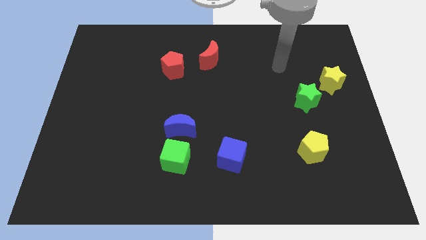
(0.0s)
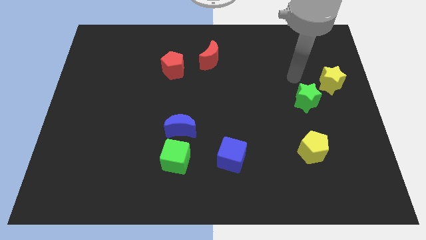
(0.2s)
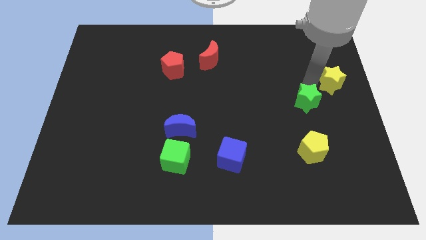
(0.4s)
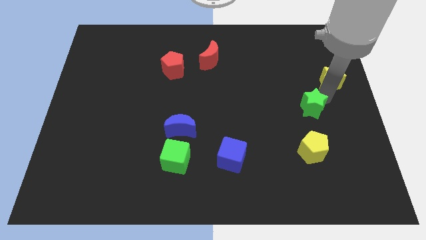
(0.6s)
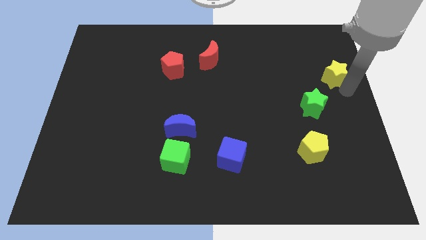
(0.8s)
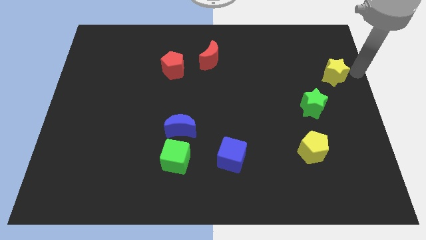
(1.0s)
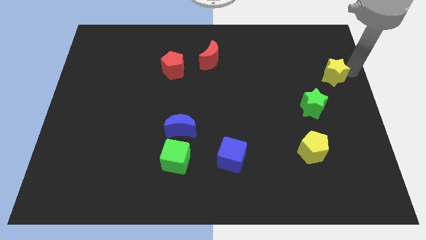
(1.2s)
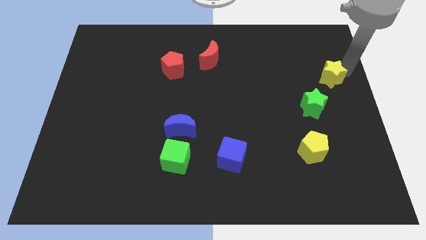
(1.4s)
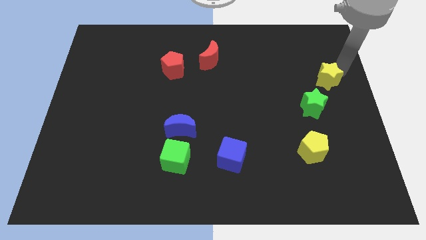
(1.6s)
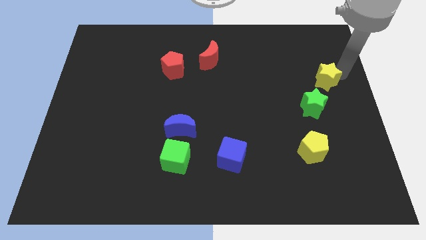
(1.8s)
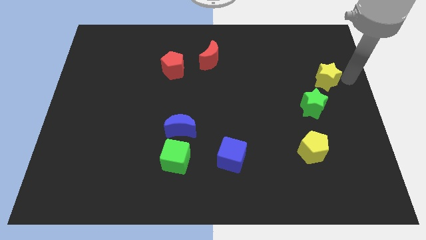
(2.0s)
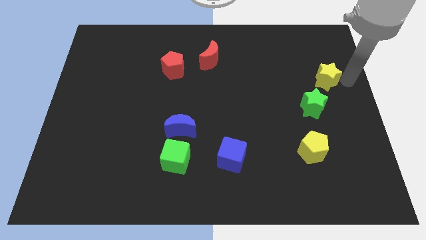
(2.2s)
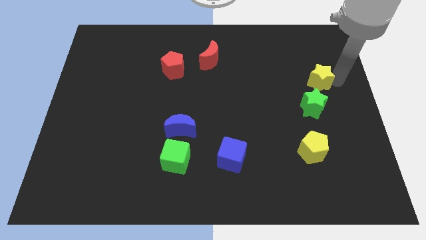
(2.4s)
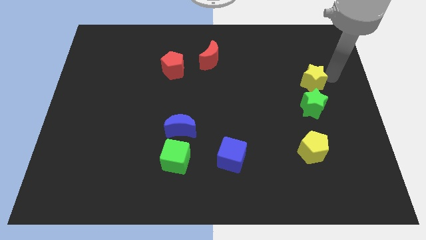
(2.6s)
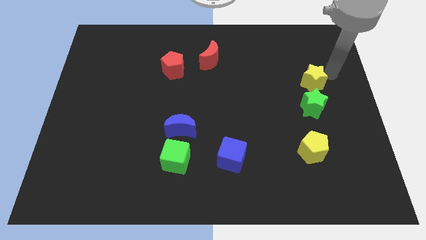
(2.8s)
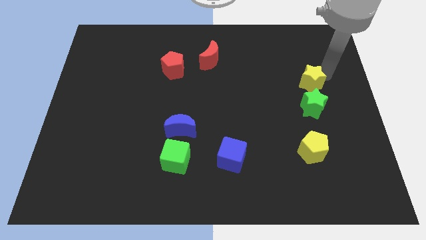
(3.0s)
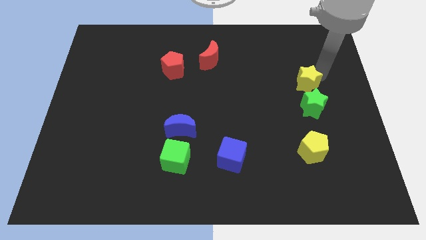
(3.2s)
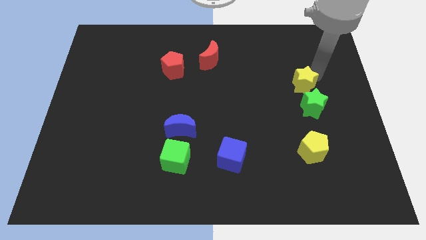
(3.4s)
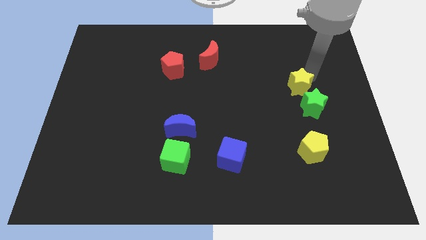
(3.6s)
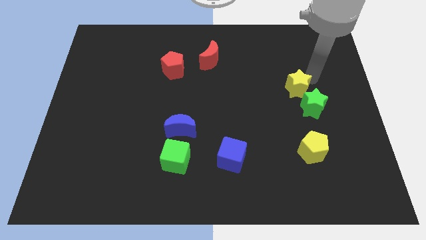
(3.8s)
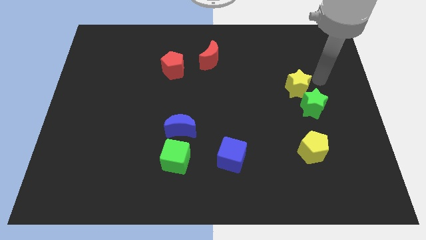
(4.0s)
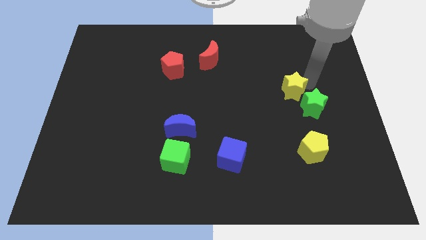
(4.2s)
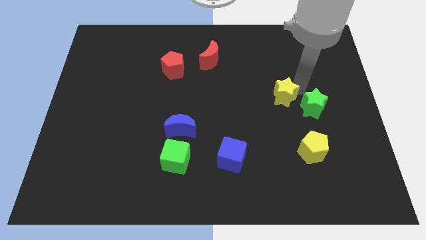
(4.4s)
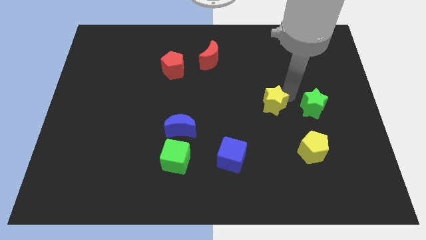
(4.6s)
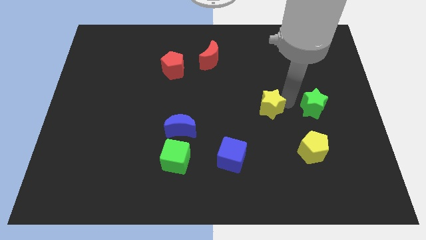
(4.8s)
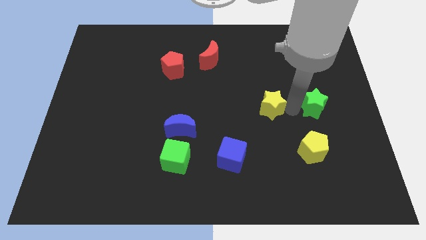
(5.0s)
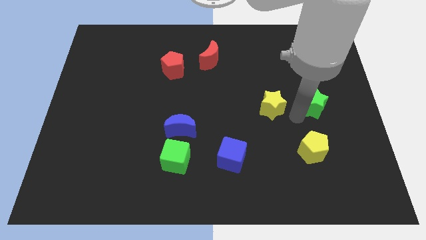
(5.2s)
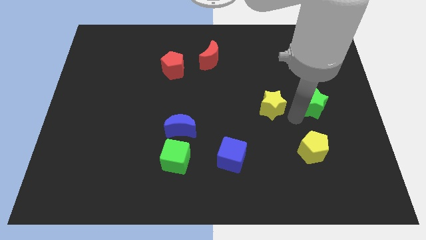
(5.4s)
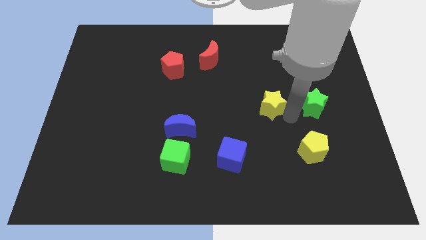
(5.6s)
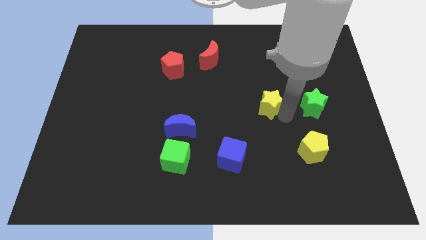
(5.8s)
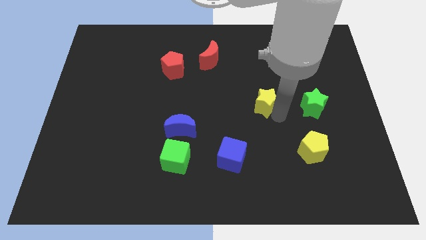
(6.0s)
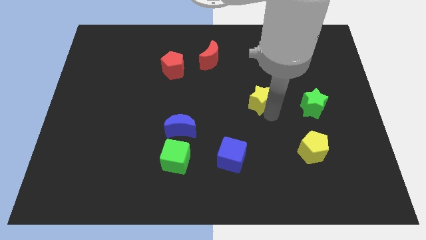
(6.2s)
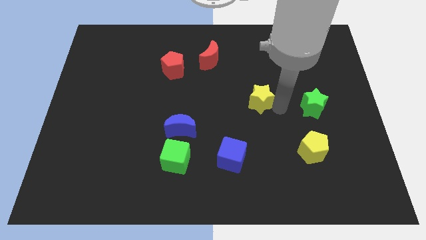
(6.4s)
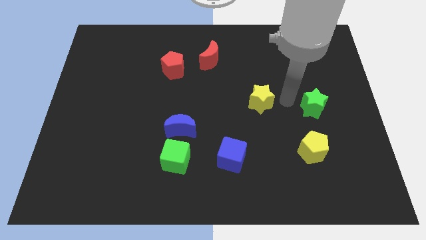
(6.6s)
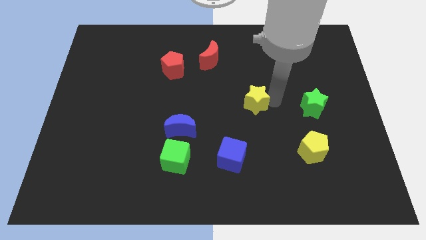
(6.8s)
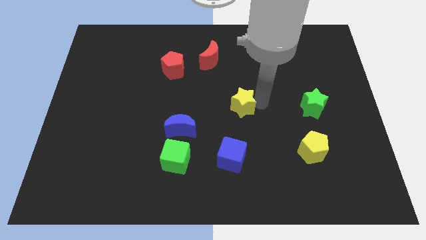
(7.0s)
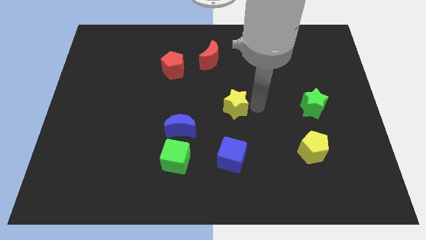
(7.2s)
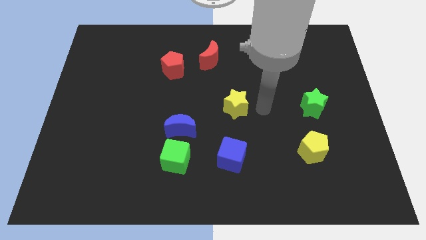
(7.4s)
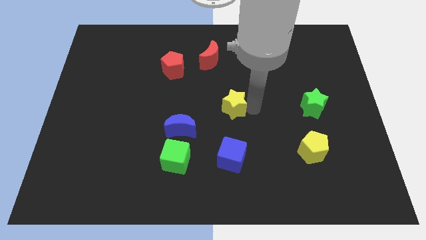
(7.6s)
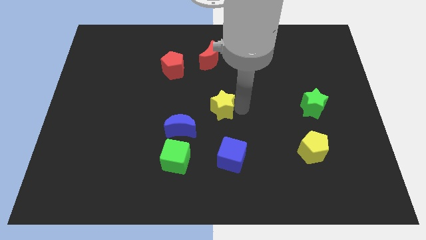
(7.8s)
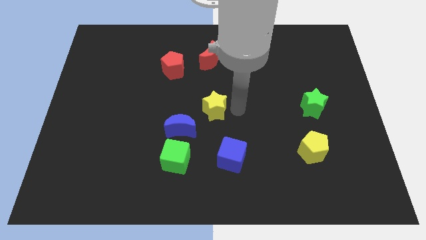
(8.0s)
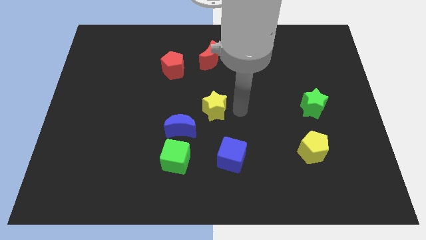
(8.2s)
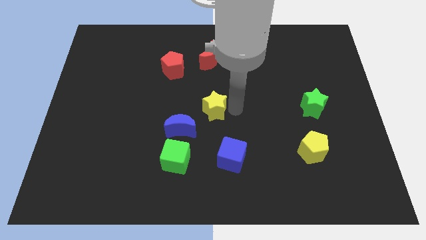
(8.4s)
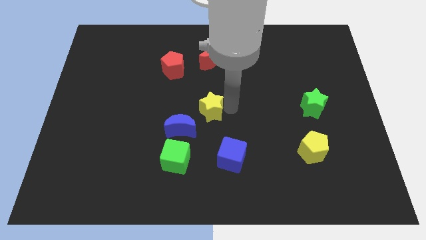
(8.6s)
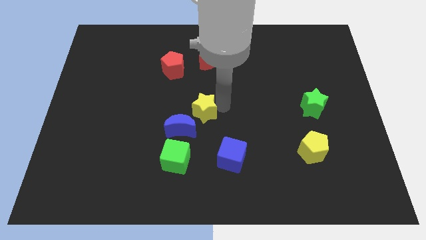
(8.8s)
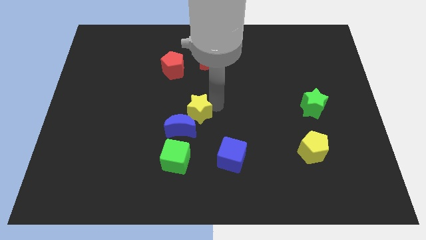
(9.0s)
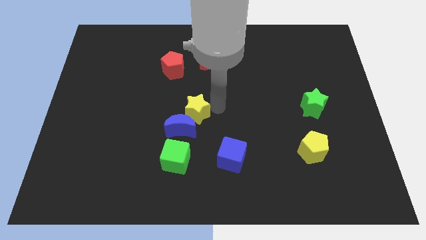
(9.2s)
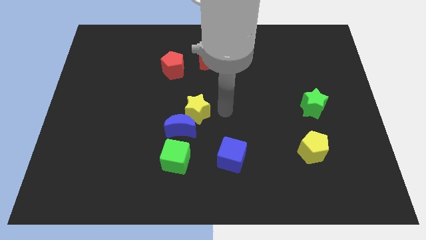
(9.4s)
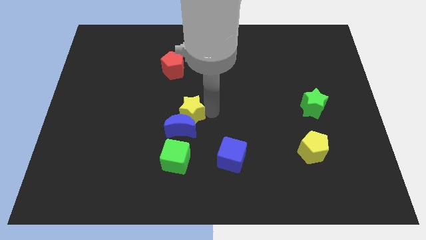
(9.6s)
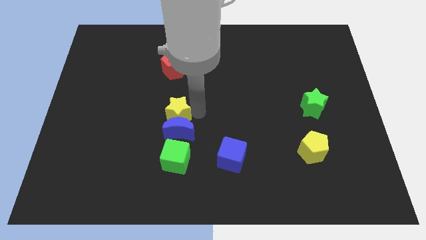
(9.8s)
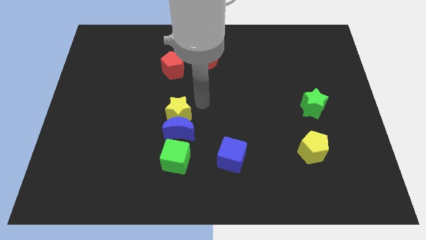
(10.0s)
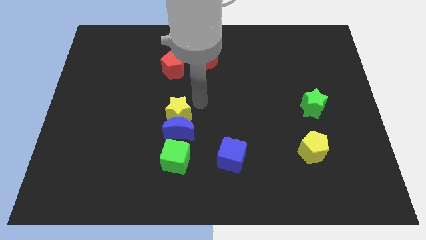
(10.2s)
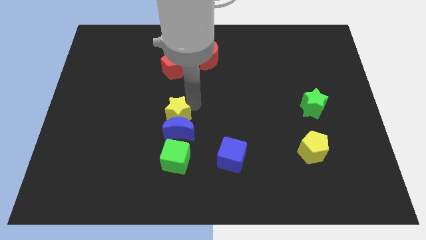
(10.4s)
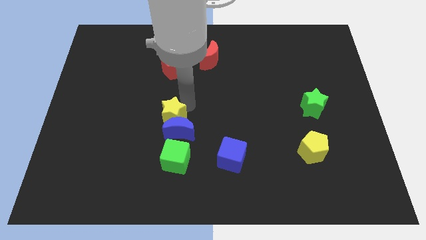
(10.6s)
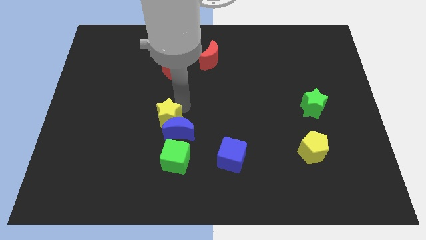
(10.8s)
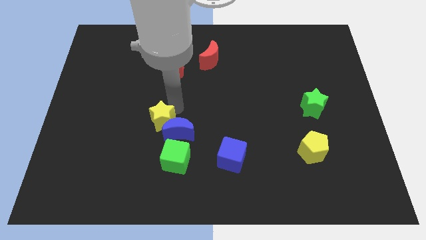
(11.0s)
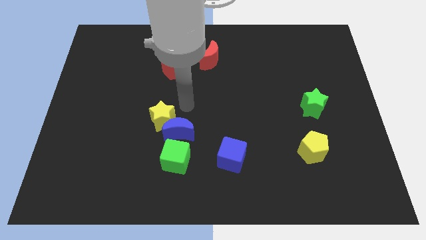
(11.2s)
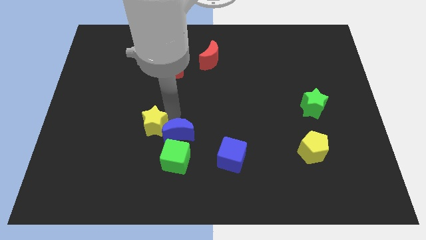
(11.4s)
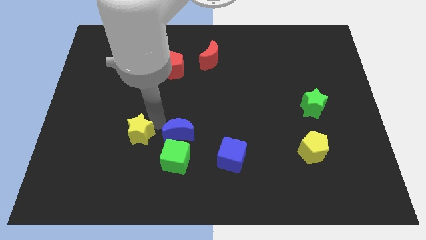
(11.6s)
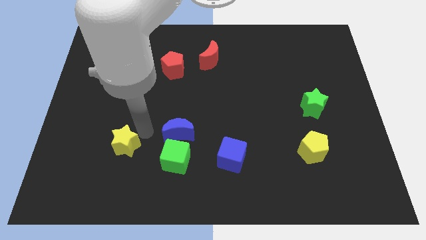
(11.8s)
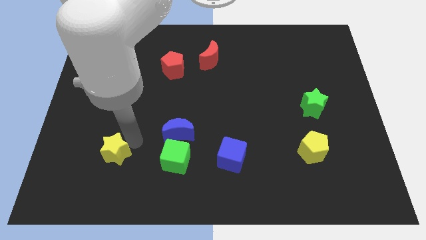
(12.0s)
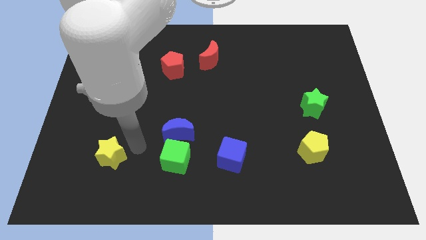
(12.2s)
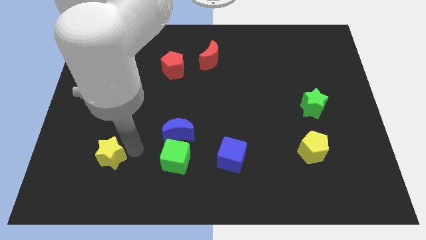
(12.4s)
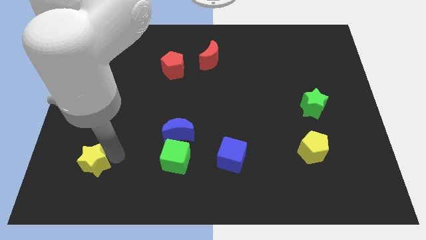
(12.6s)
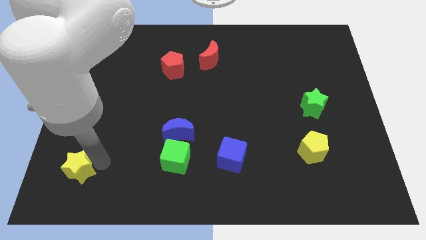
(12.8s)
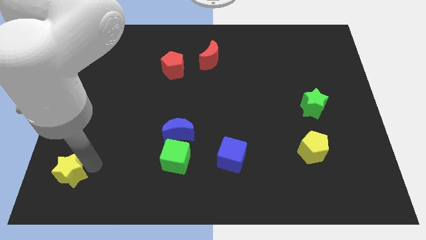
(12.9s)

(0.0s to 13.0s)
move the yellow star to the bottom left of the board
